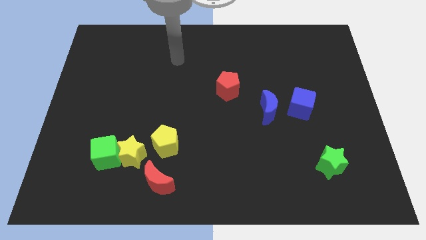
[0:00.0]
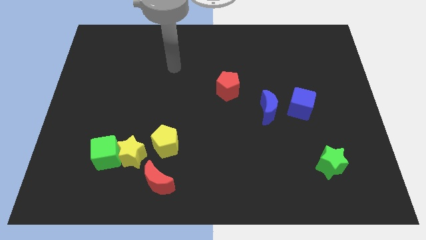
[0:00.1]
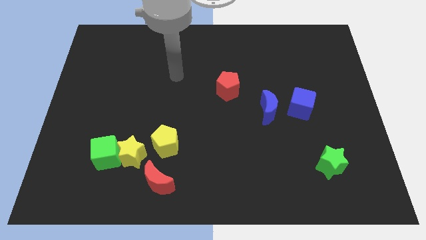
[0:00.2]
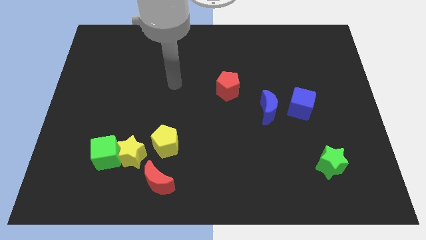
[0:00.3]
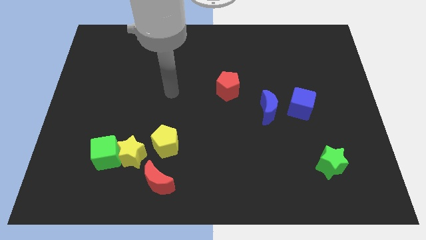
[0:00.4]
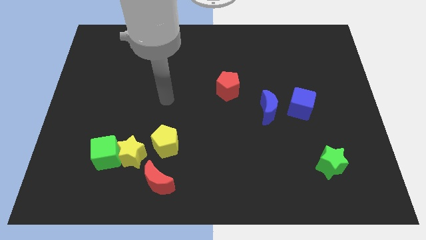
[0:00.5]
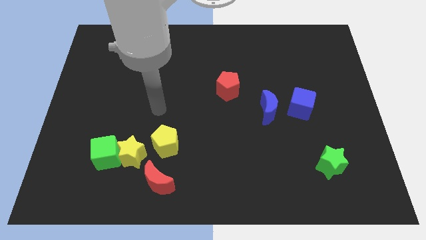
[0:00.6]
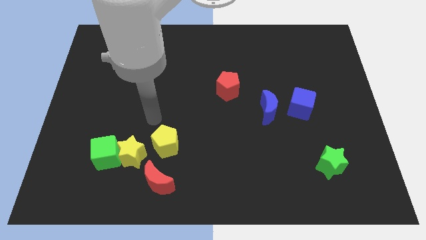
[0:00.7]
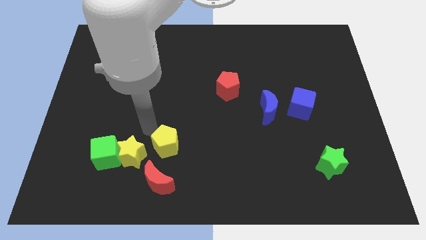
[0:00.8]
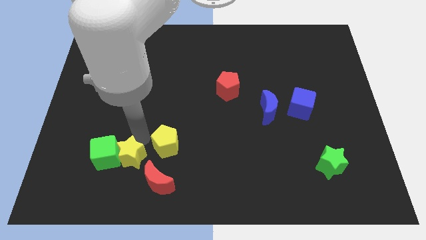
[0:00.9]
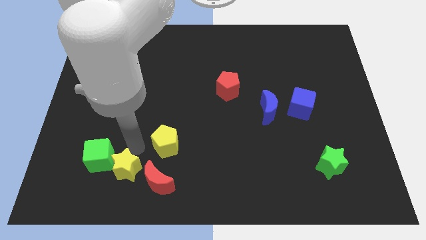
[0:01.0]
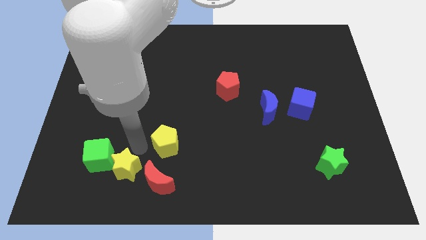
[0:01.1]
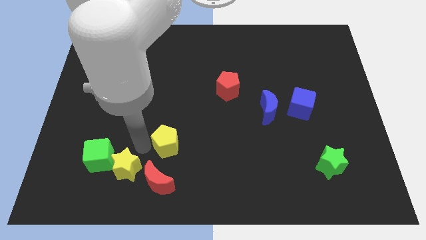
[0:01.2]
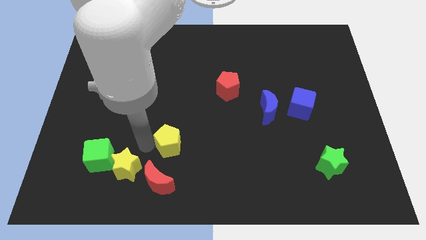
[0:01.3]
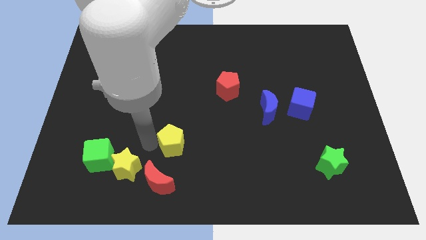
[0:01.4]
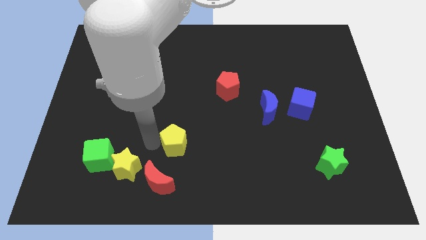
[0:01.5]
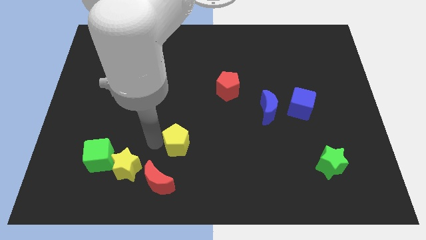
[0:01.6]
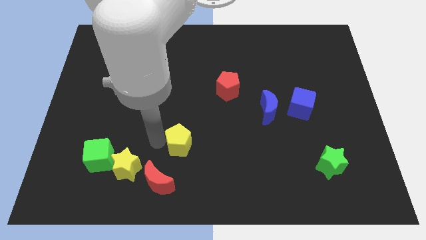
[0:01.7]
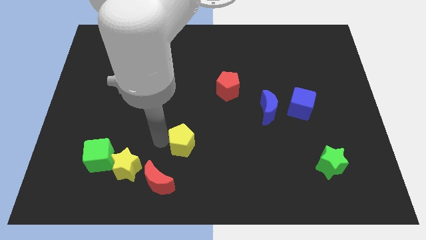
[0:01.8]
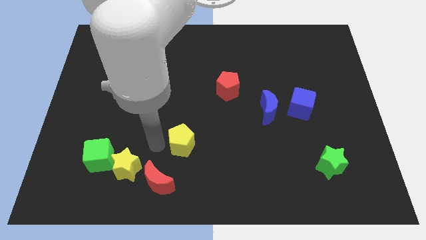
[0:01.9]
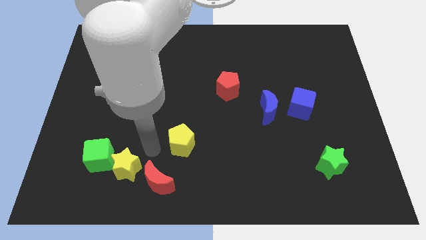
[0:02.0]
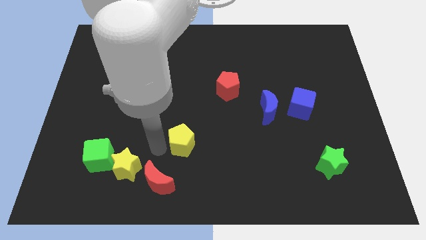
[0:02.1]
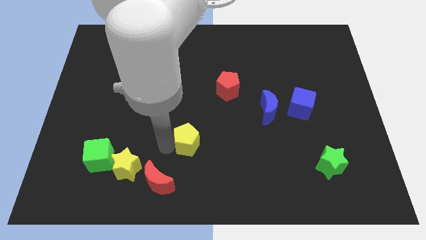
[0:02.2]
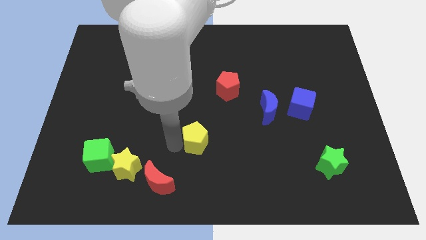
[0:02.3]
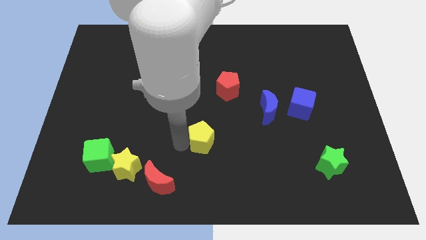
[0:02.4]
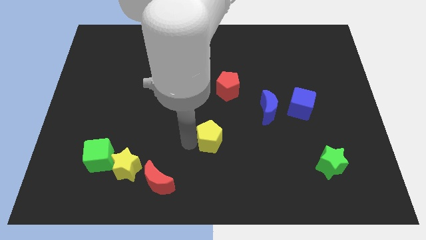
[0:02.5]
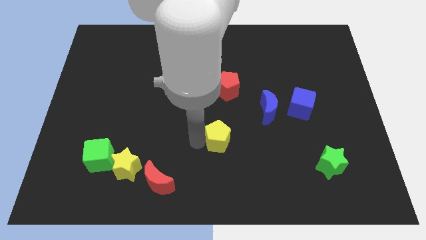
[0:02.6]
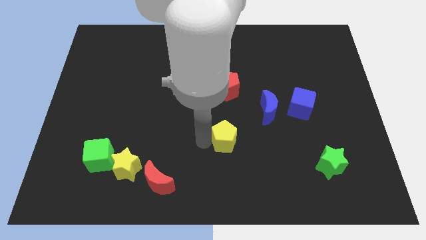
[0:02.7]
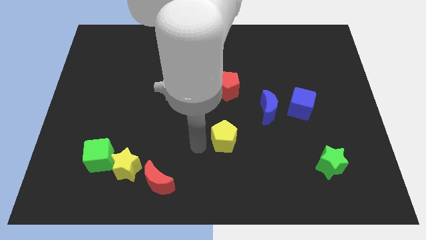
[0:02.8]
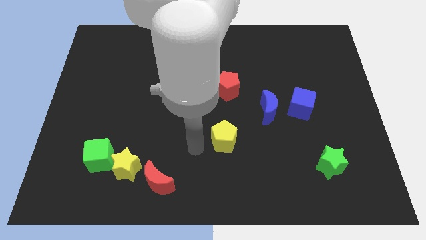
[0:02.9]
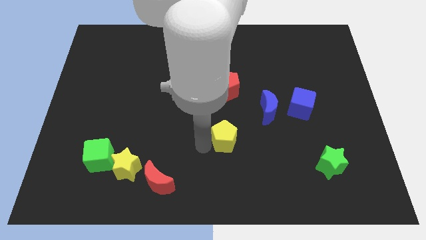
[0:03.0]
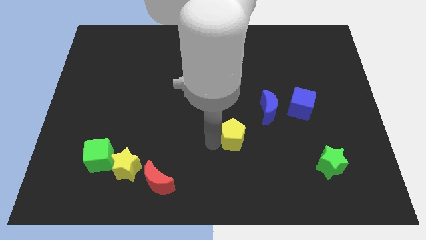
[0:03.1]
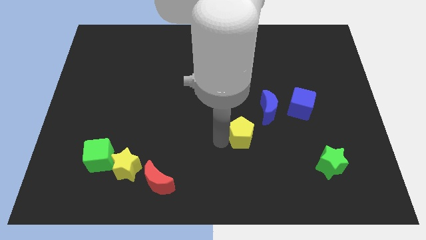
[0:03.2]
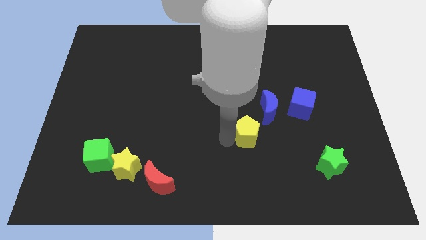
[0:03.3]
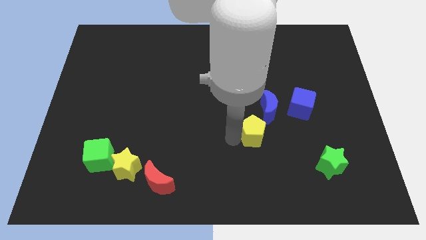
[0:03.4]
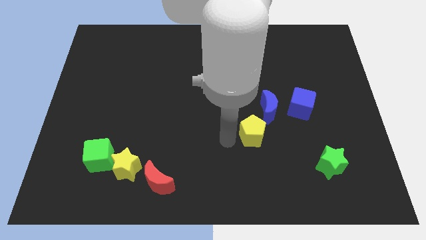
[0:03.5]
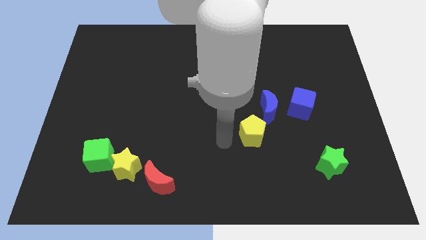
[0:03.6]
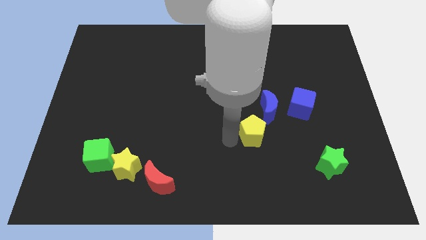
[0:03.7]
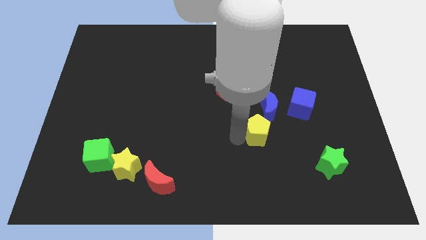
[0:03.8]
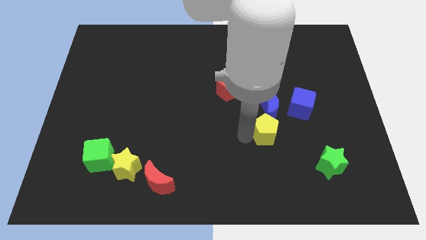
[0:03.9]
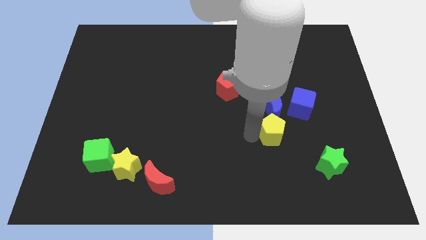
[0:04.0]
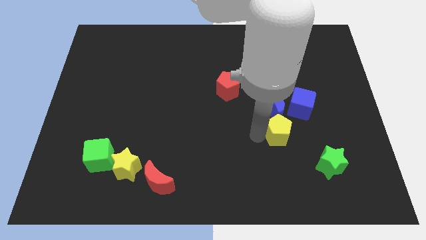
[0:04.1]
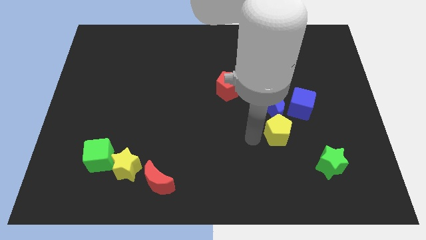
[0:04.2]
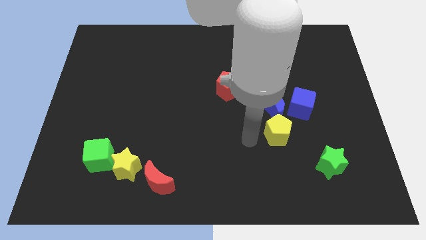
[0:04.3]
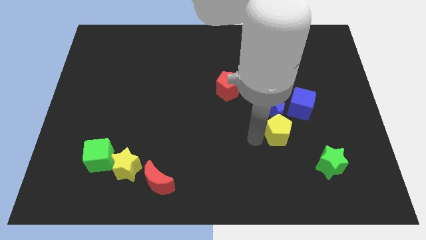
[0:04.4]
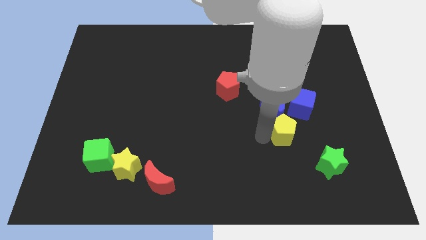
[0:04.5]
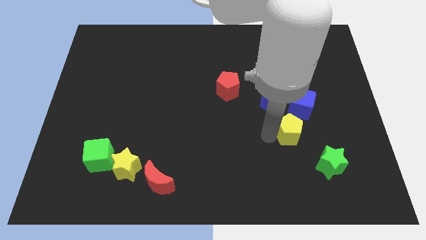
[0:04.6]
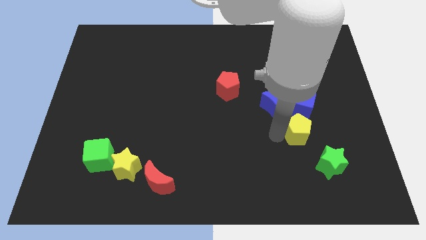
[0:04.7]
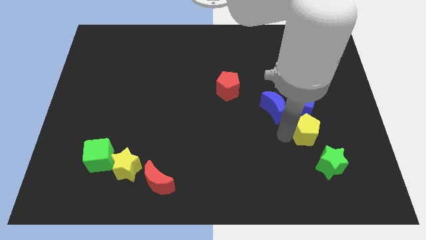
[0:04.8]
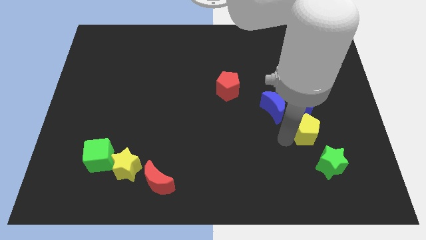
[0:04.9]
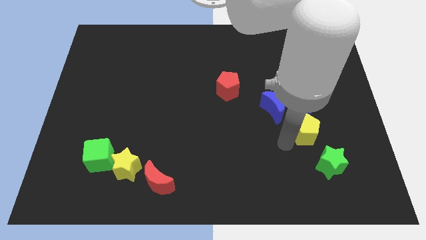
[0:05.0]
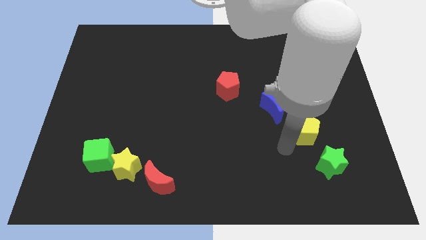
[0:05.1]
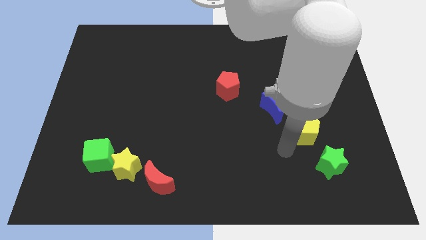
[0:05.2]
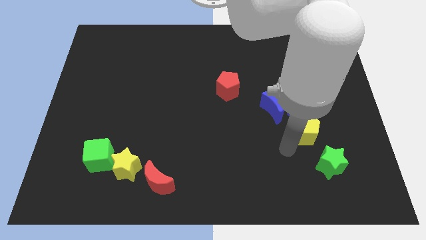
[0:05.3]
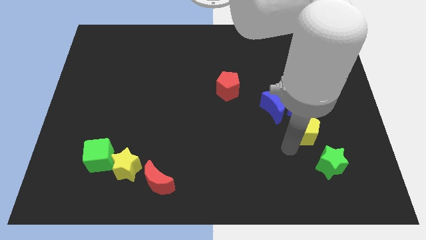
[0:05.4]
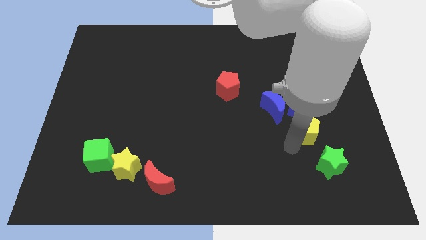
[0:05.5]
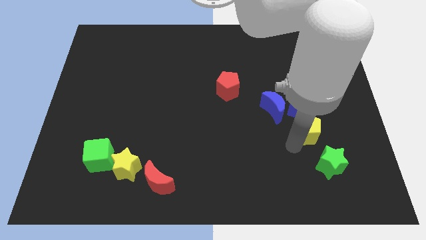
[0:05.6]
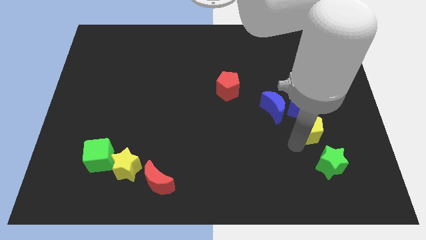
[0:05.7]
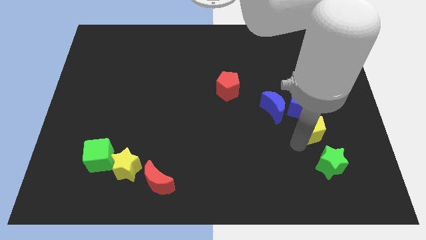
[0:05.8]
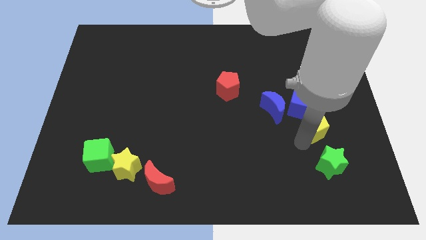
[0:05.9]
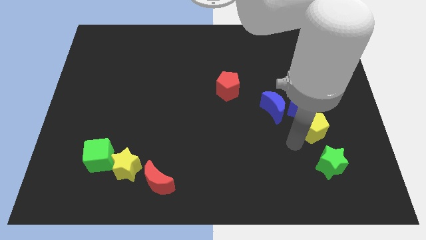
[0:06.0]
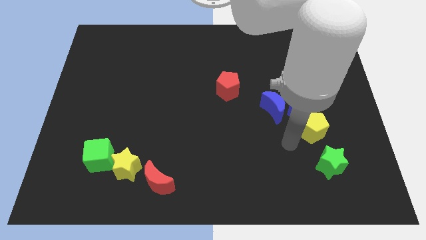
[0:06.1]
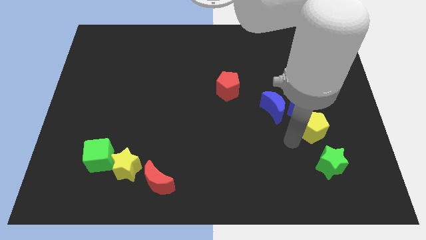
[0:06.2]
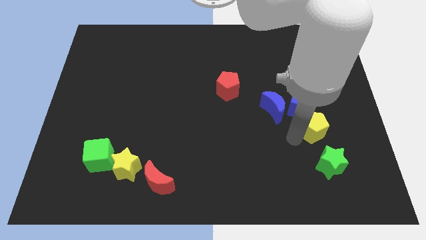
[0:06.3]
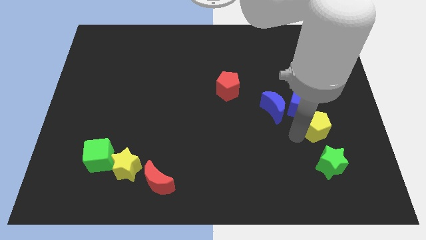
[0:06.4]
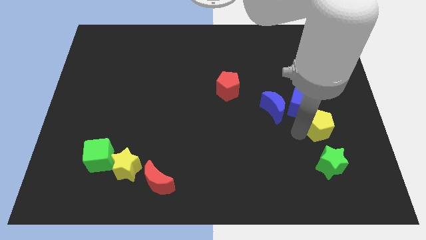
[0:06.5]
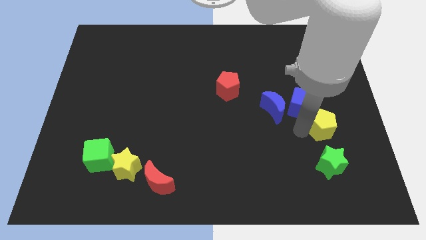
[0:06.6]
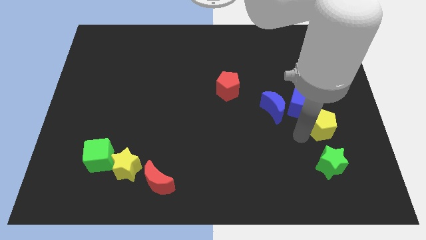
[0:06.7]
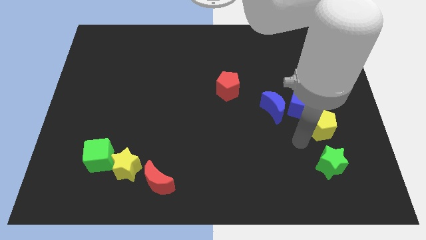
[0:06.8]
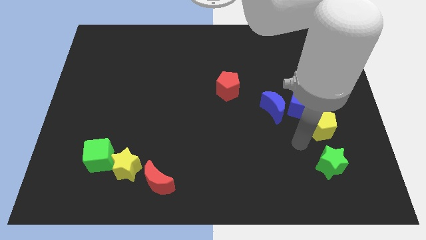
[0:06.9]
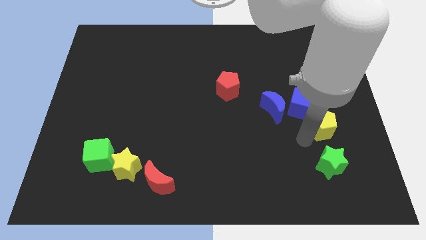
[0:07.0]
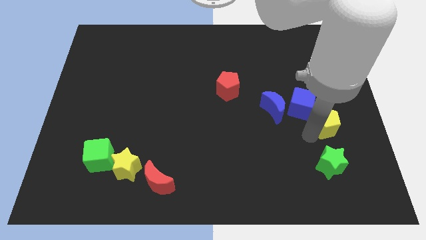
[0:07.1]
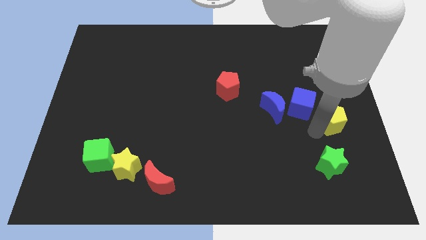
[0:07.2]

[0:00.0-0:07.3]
push the yellow pentagon to the right side of the board
